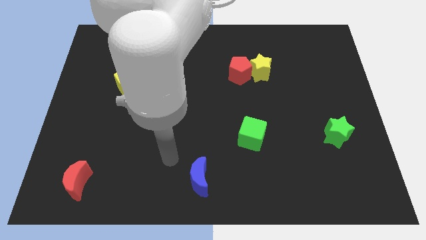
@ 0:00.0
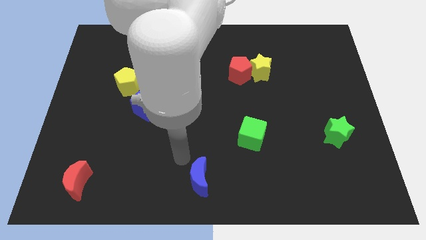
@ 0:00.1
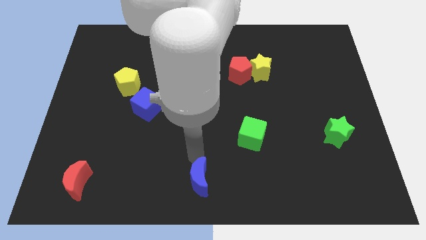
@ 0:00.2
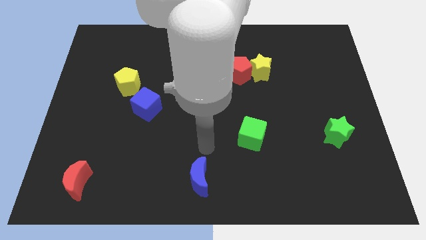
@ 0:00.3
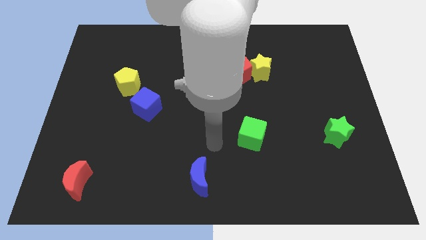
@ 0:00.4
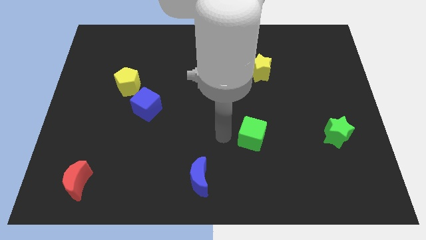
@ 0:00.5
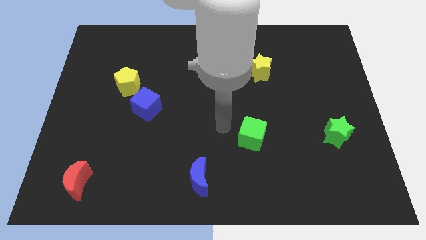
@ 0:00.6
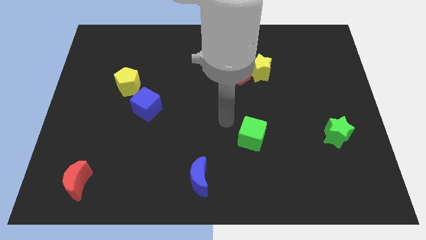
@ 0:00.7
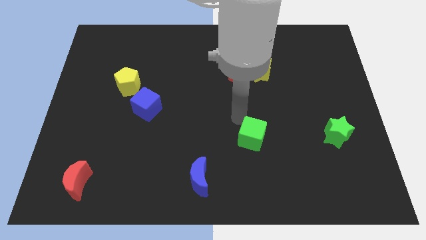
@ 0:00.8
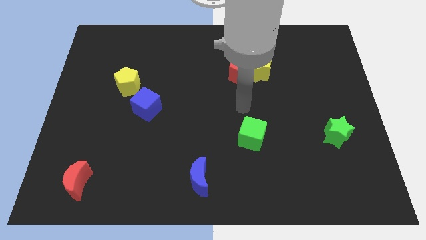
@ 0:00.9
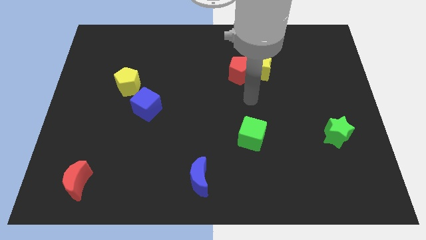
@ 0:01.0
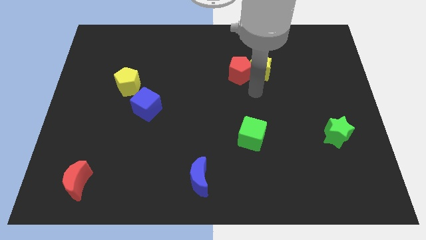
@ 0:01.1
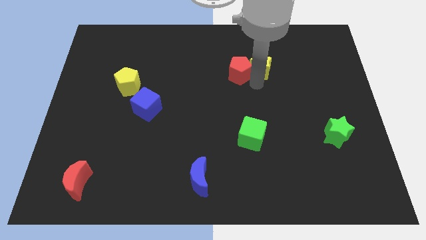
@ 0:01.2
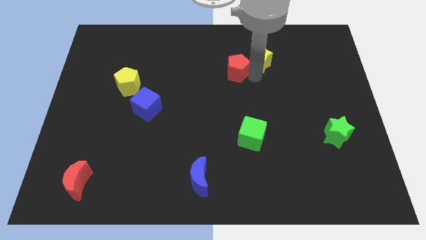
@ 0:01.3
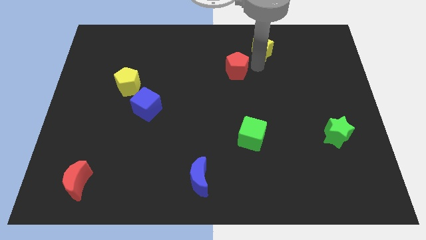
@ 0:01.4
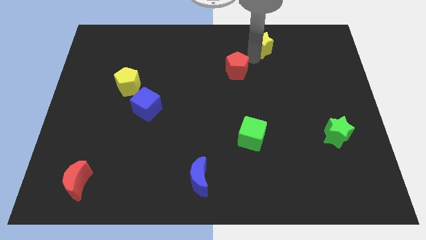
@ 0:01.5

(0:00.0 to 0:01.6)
move the red pentagon away from the yellow star

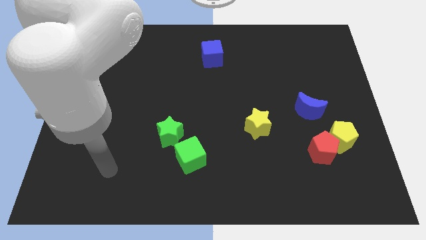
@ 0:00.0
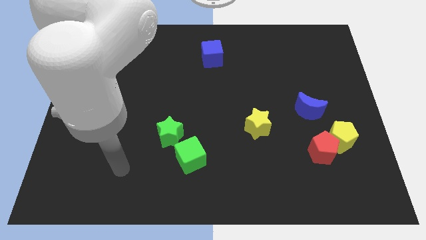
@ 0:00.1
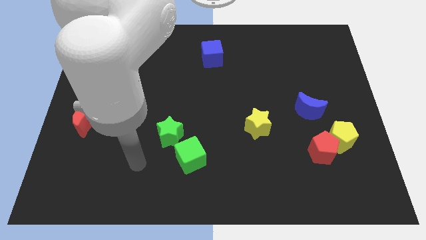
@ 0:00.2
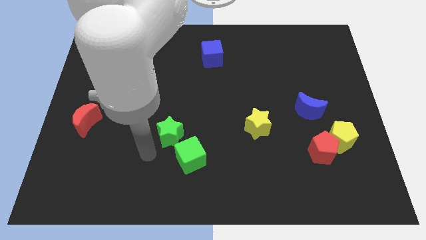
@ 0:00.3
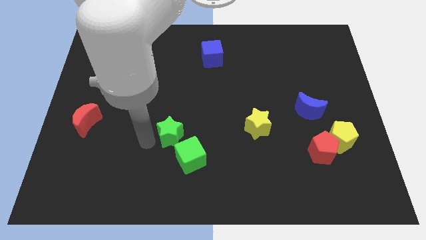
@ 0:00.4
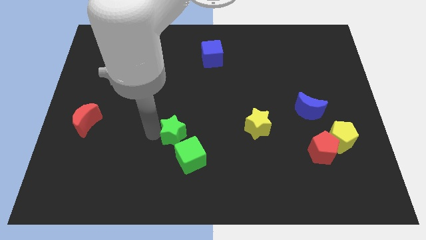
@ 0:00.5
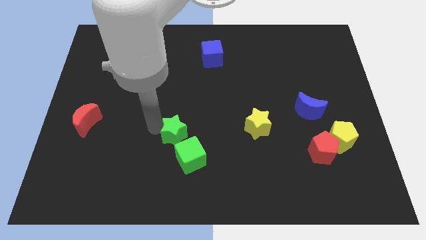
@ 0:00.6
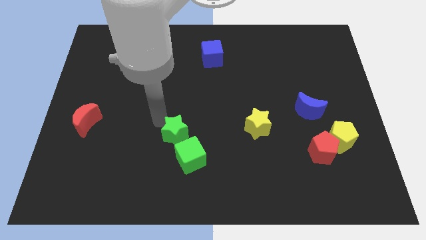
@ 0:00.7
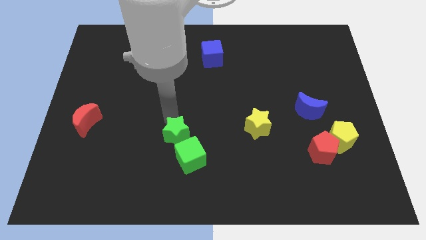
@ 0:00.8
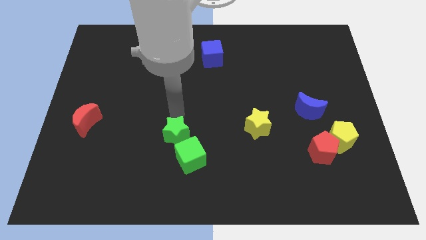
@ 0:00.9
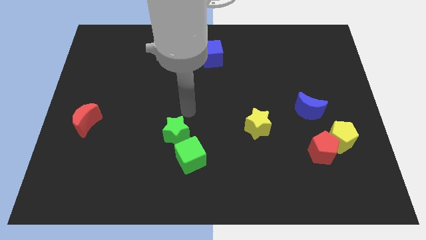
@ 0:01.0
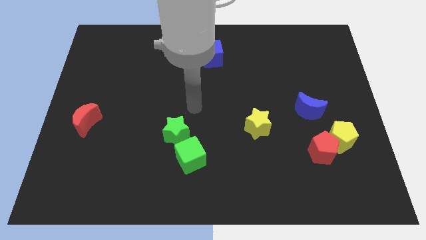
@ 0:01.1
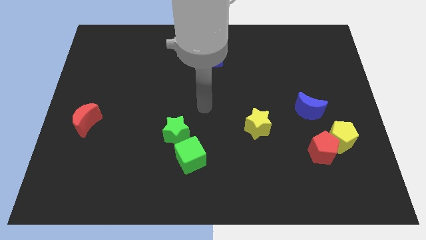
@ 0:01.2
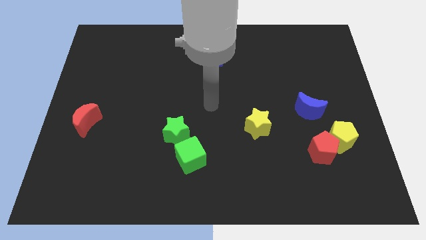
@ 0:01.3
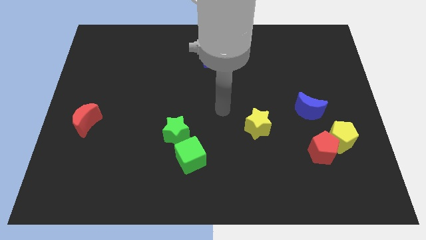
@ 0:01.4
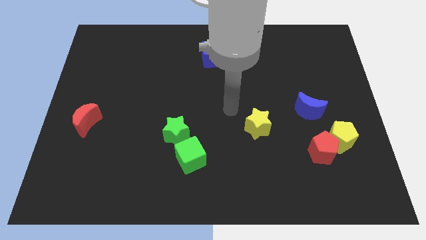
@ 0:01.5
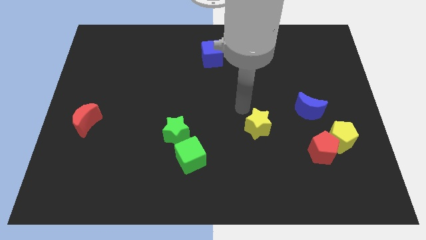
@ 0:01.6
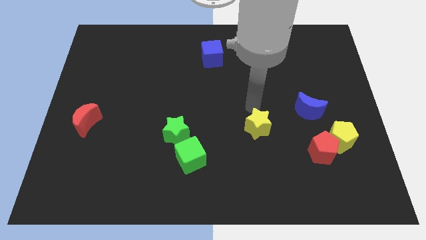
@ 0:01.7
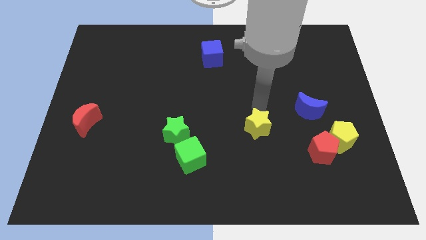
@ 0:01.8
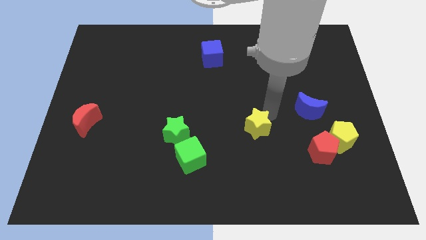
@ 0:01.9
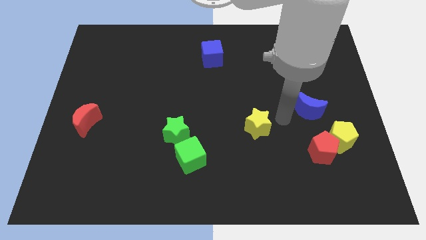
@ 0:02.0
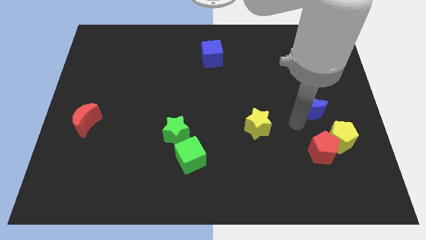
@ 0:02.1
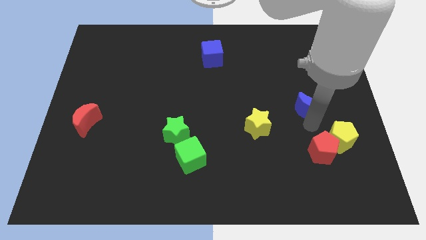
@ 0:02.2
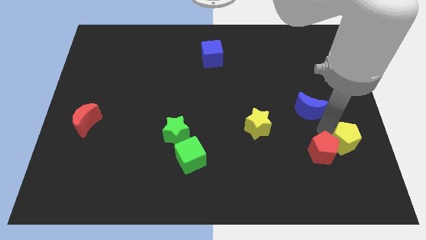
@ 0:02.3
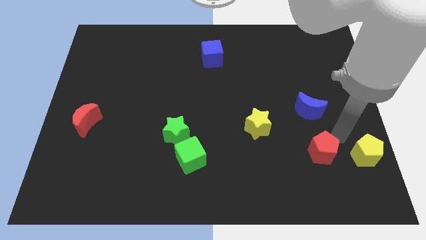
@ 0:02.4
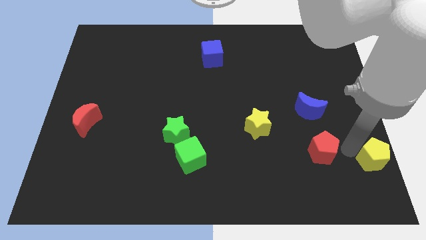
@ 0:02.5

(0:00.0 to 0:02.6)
pull the red pentagon apart from the yellow pentagon

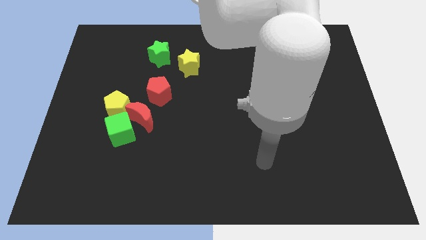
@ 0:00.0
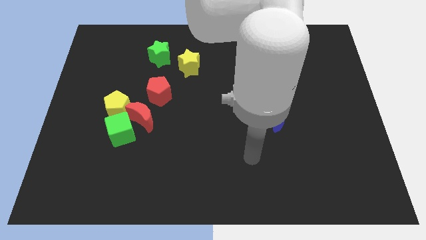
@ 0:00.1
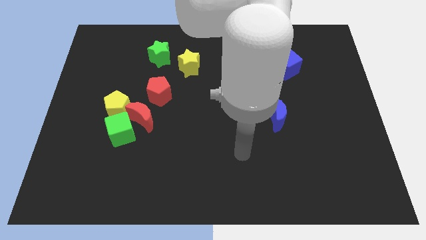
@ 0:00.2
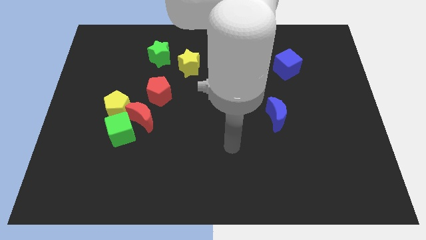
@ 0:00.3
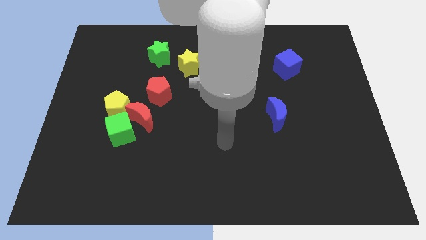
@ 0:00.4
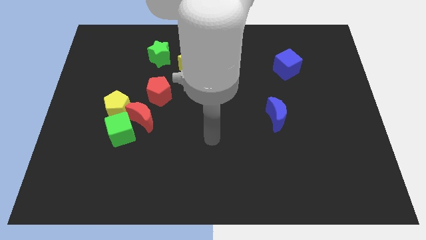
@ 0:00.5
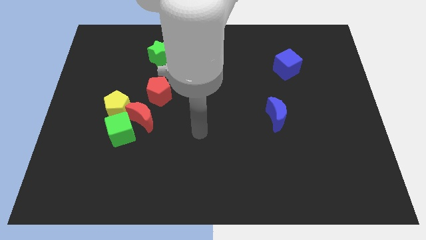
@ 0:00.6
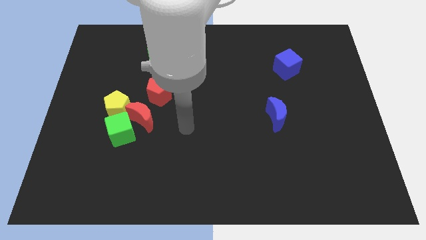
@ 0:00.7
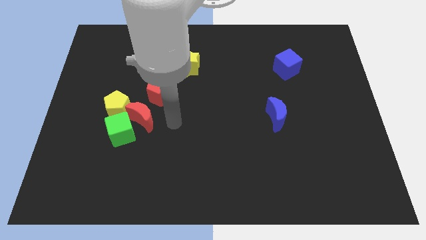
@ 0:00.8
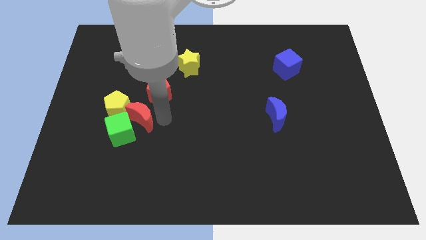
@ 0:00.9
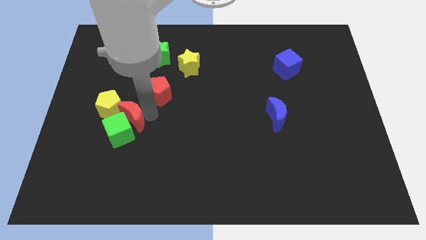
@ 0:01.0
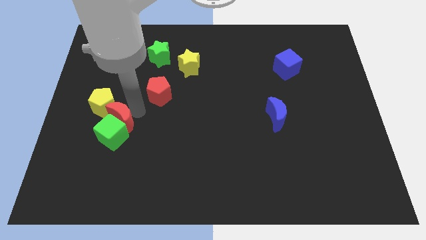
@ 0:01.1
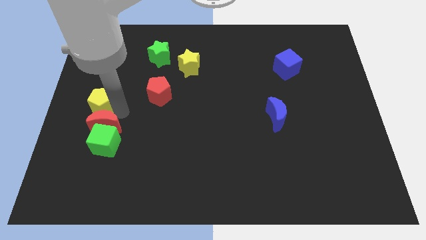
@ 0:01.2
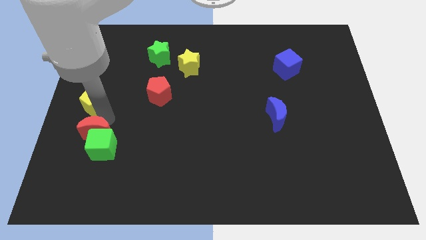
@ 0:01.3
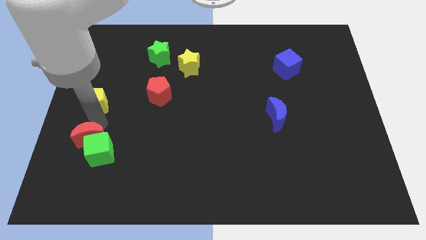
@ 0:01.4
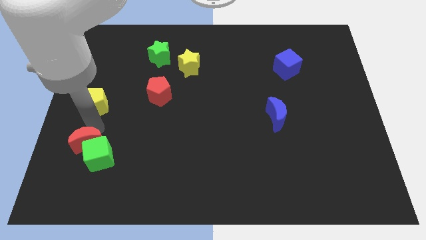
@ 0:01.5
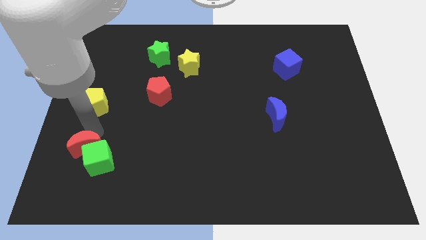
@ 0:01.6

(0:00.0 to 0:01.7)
separate the green cube from the red moon and yellow pentagon

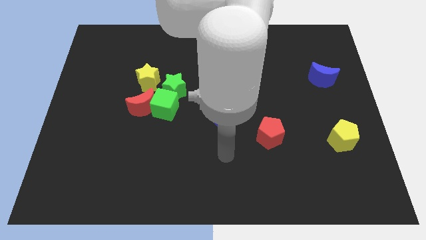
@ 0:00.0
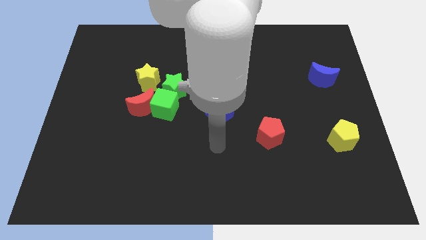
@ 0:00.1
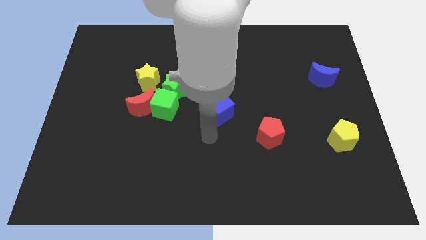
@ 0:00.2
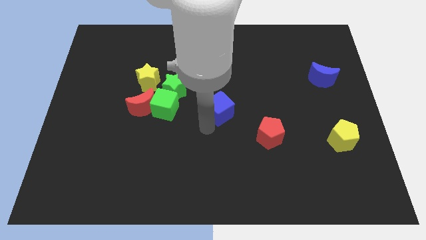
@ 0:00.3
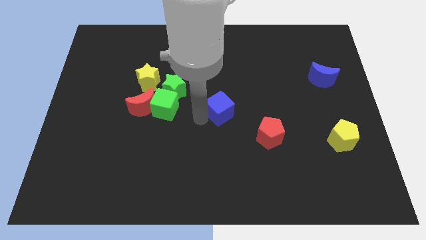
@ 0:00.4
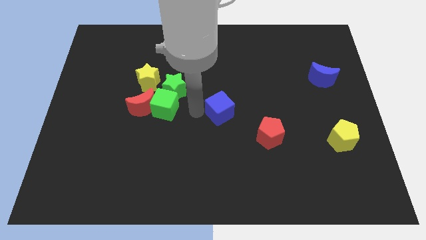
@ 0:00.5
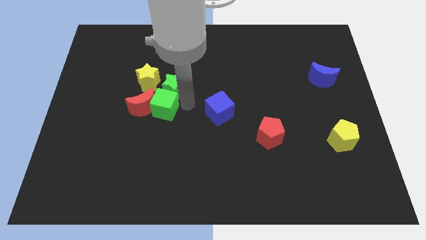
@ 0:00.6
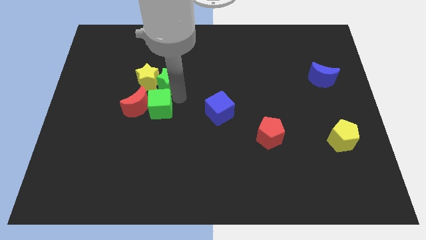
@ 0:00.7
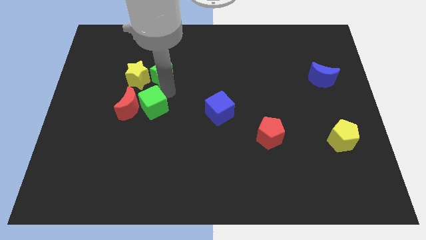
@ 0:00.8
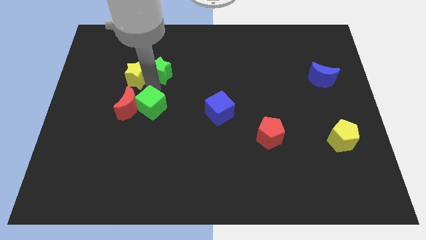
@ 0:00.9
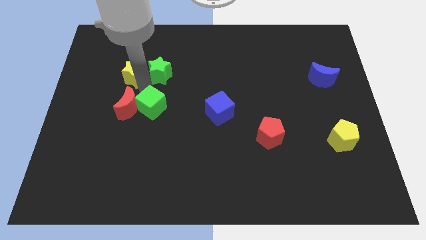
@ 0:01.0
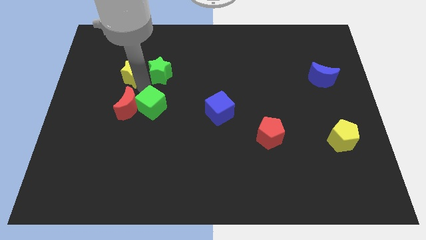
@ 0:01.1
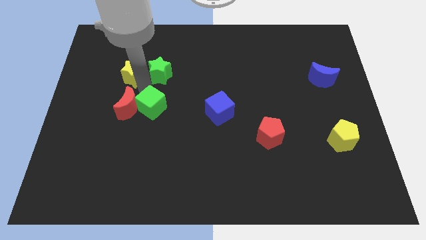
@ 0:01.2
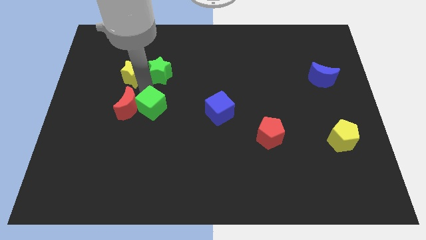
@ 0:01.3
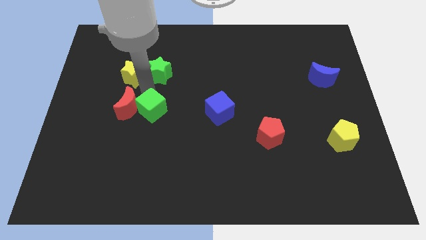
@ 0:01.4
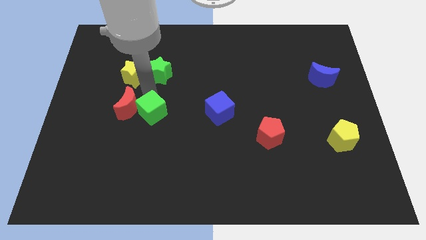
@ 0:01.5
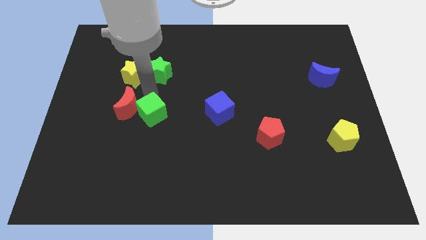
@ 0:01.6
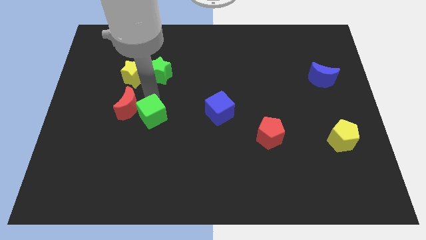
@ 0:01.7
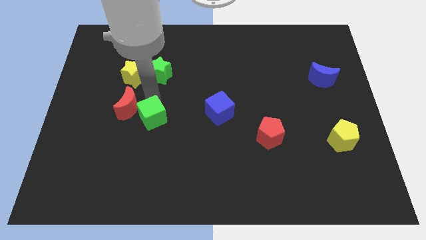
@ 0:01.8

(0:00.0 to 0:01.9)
pull the green cube apart from the red moon, green star, and yellow star

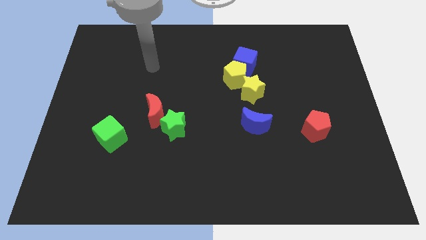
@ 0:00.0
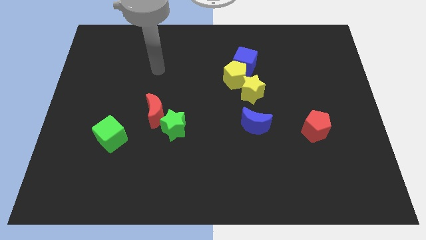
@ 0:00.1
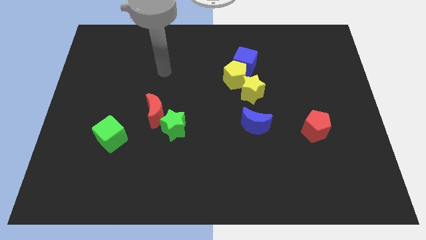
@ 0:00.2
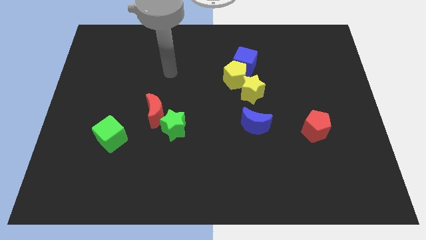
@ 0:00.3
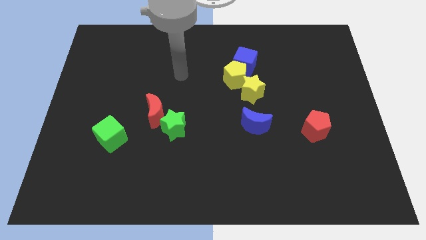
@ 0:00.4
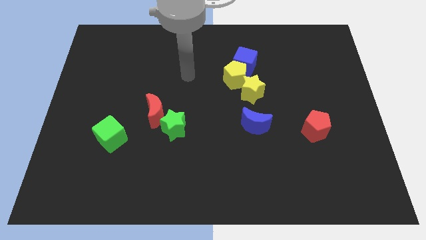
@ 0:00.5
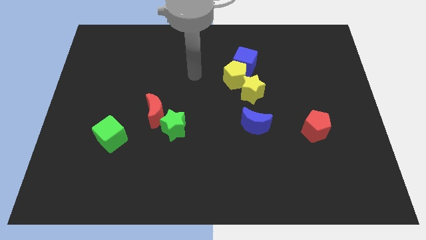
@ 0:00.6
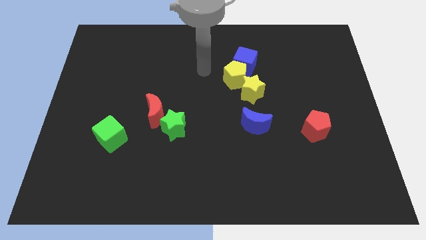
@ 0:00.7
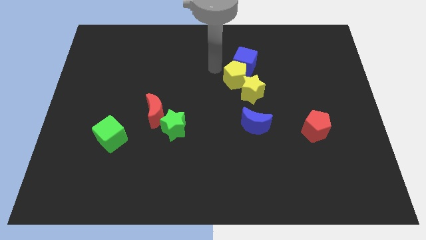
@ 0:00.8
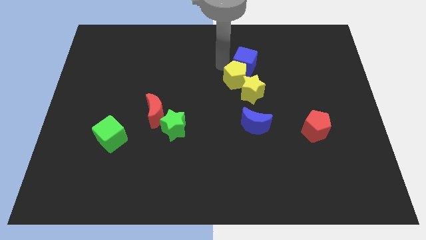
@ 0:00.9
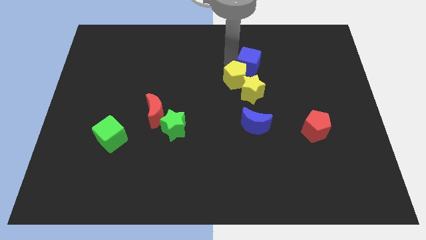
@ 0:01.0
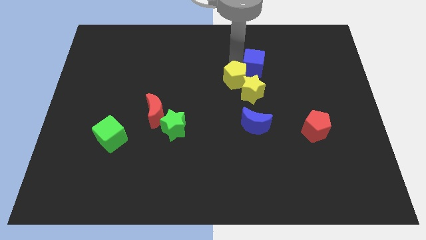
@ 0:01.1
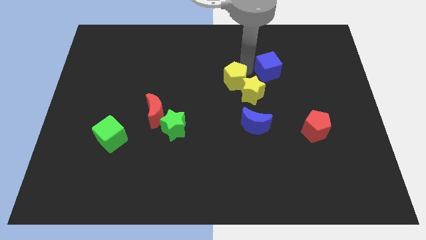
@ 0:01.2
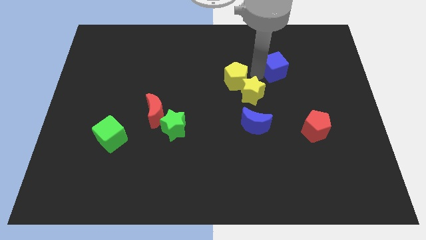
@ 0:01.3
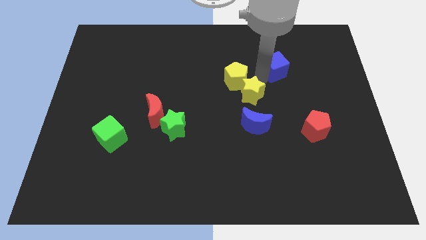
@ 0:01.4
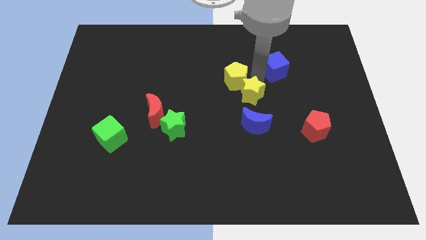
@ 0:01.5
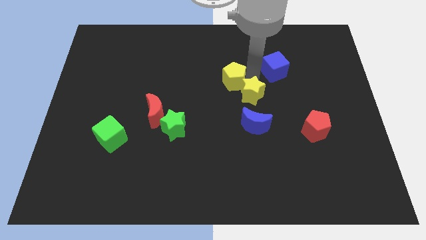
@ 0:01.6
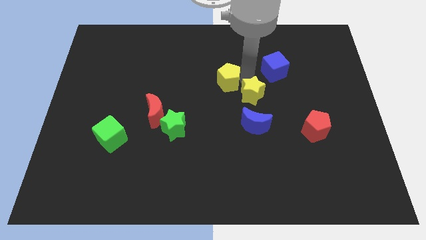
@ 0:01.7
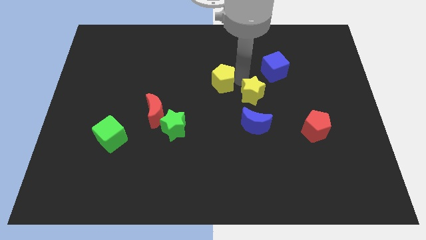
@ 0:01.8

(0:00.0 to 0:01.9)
separate the yellow pentagon from the blue cube and yellow star
